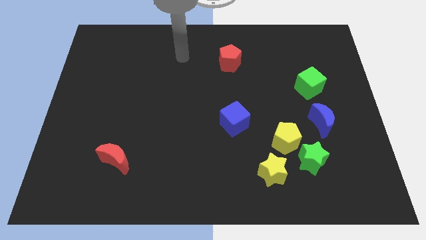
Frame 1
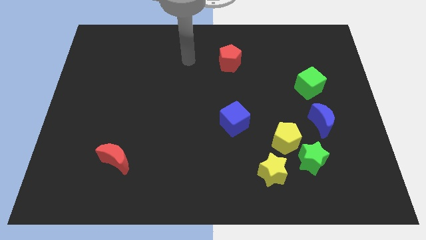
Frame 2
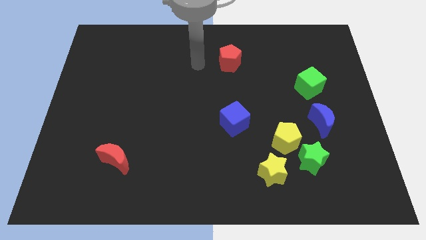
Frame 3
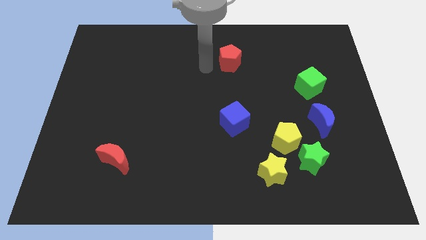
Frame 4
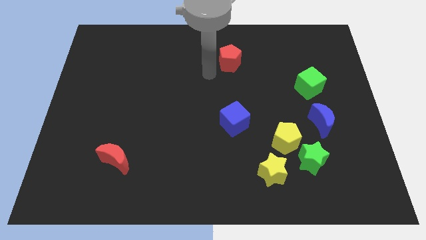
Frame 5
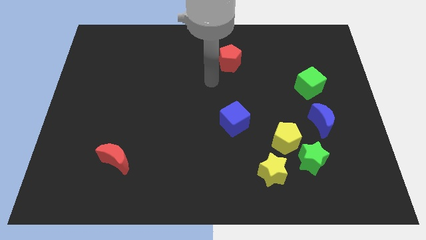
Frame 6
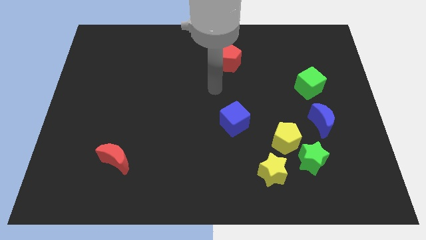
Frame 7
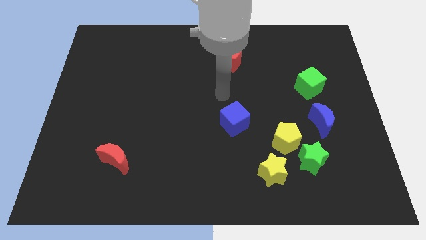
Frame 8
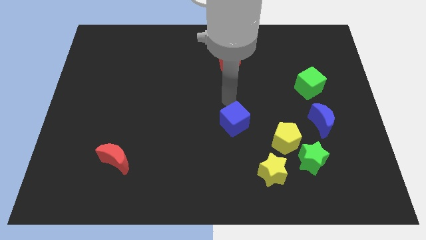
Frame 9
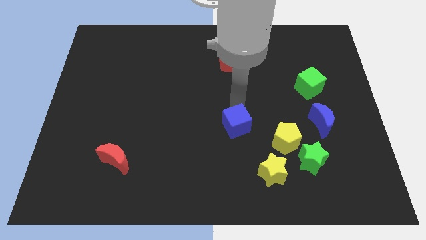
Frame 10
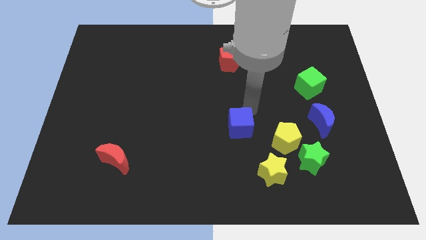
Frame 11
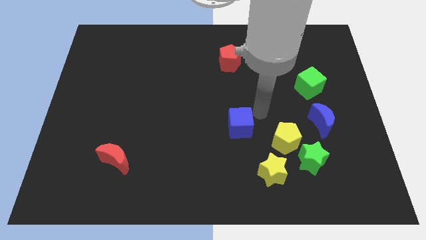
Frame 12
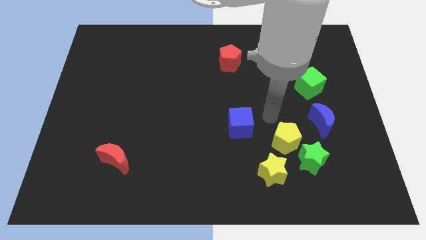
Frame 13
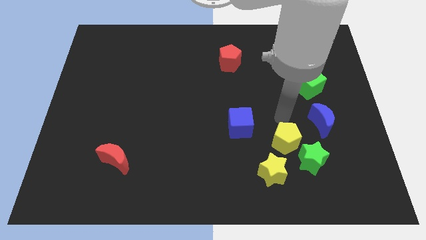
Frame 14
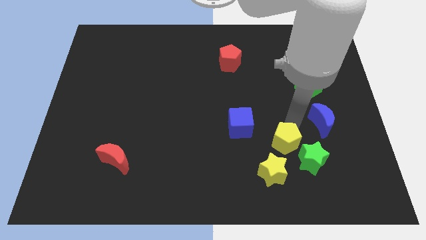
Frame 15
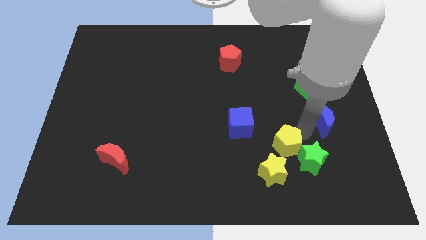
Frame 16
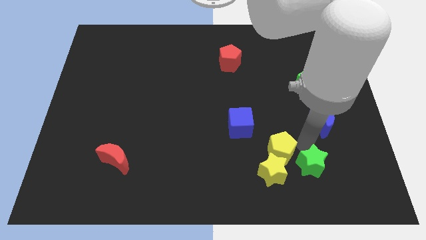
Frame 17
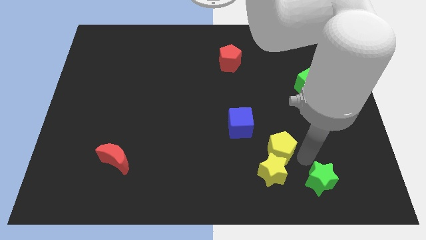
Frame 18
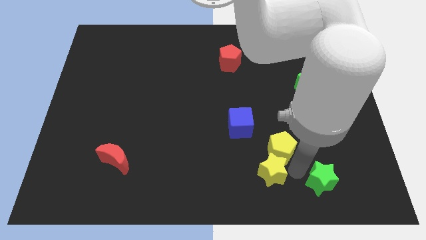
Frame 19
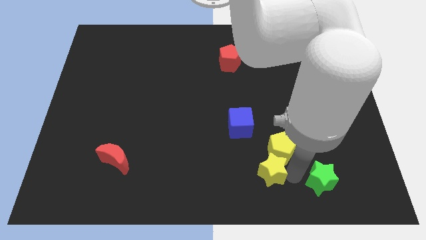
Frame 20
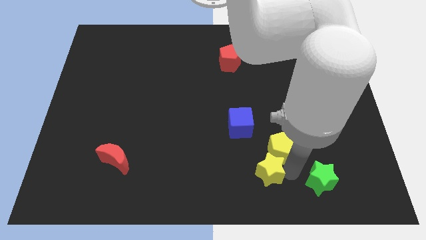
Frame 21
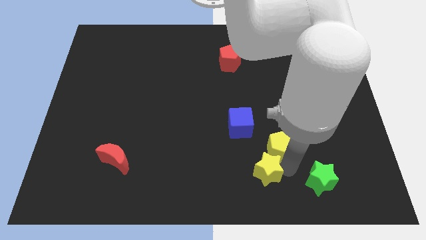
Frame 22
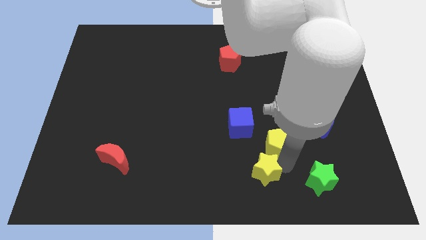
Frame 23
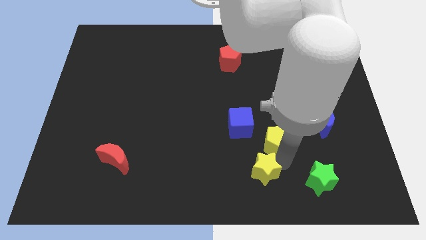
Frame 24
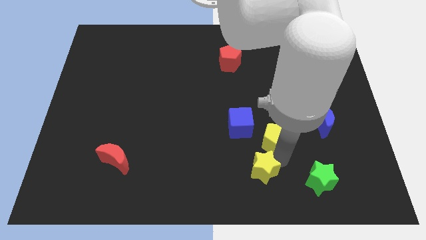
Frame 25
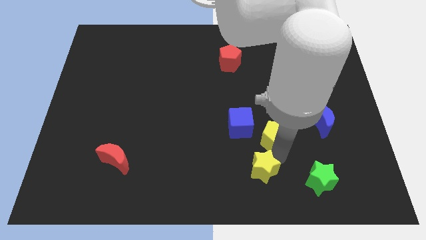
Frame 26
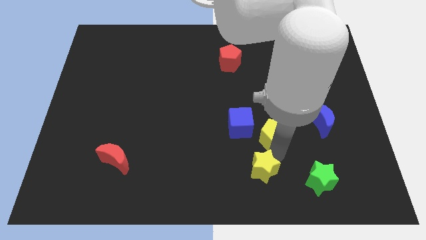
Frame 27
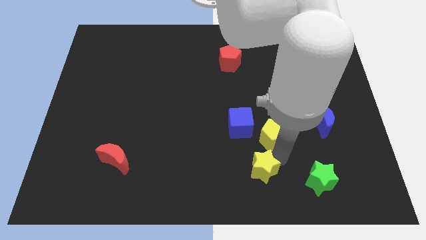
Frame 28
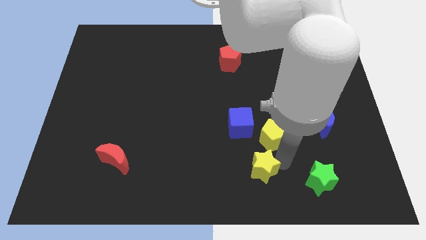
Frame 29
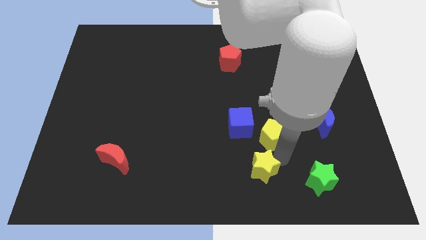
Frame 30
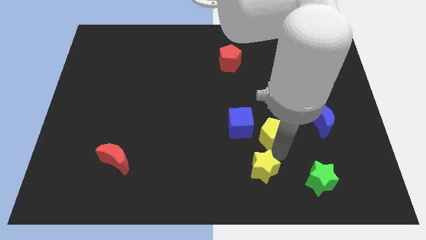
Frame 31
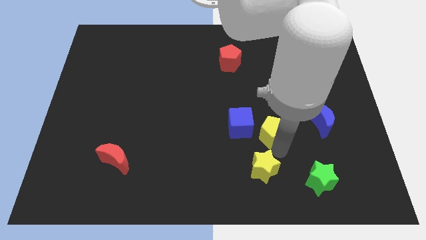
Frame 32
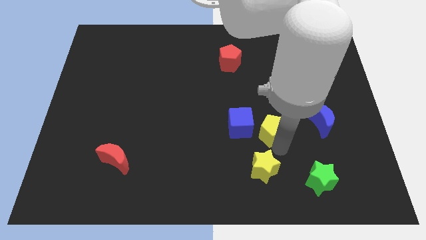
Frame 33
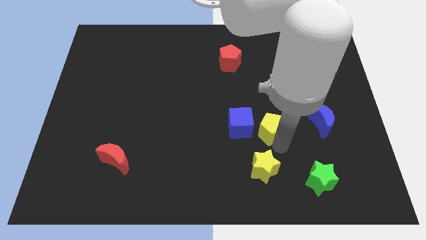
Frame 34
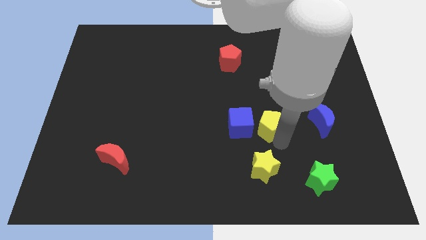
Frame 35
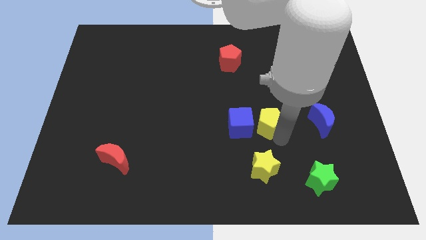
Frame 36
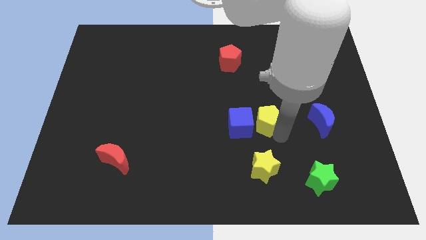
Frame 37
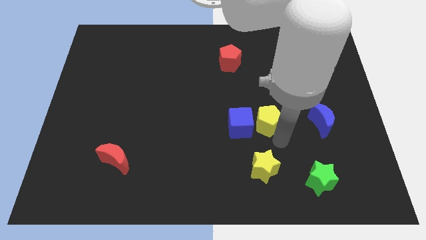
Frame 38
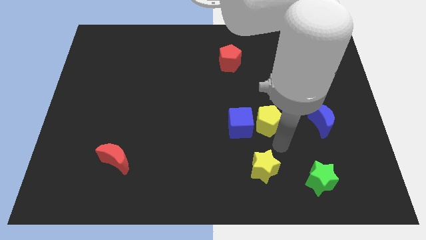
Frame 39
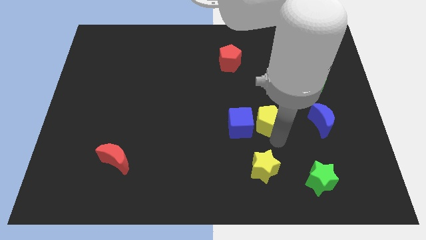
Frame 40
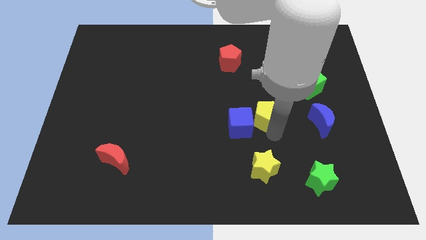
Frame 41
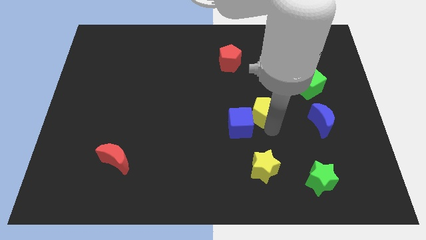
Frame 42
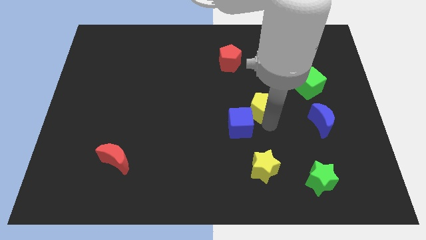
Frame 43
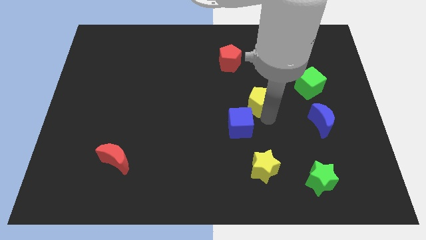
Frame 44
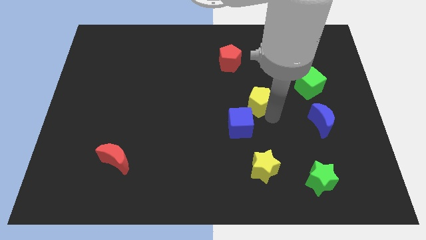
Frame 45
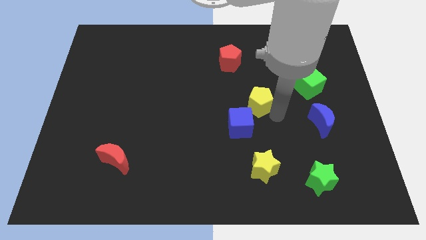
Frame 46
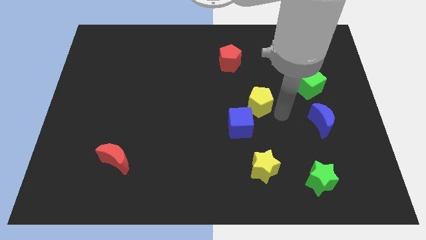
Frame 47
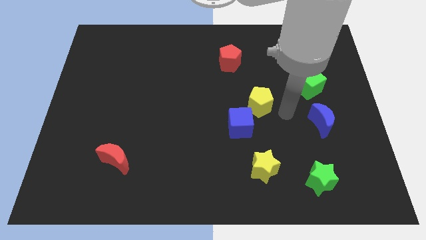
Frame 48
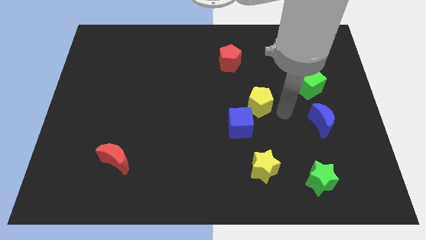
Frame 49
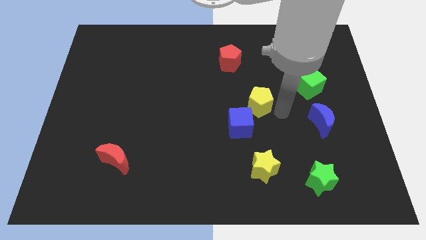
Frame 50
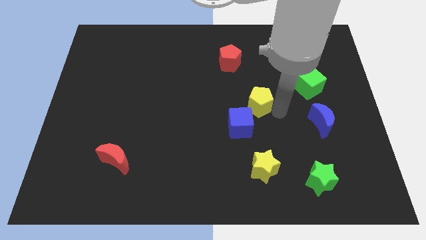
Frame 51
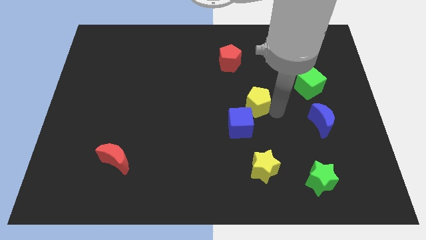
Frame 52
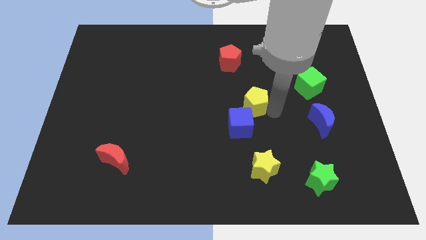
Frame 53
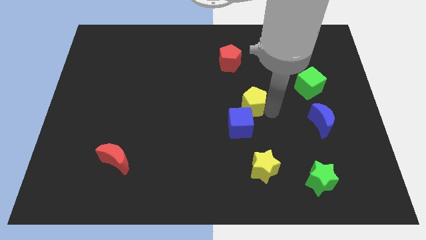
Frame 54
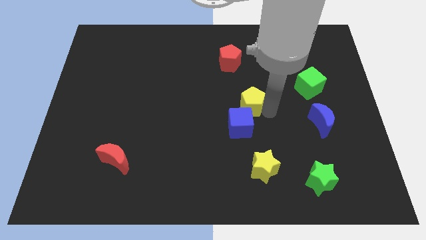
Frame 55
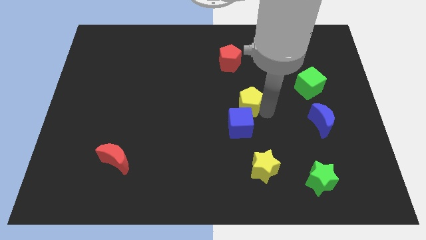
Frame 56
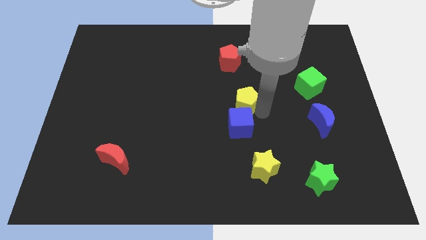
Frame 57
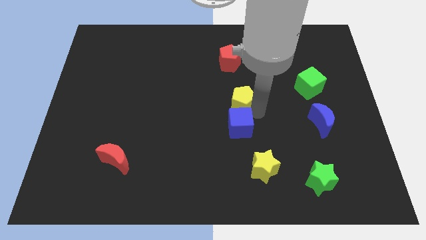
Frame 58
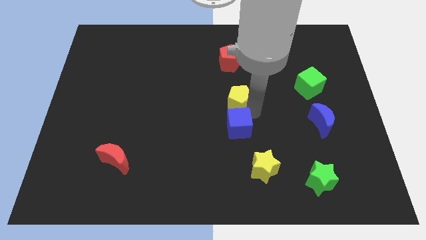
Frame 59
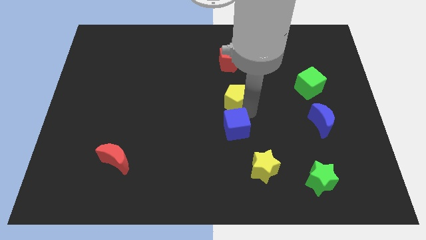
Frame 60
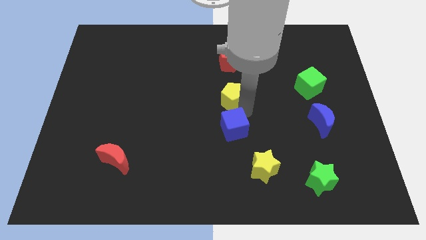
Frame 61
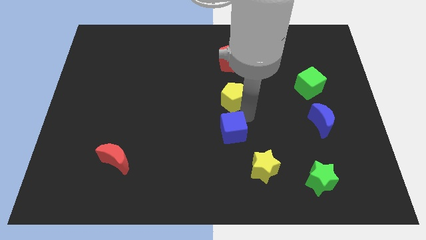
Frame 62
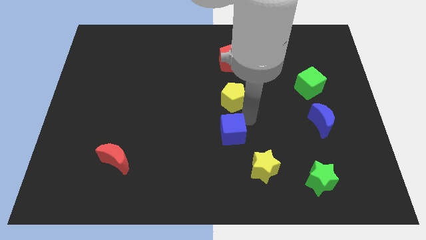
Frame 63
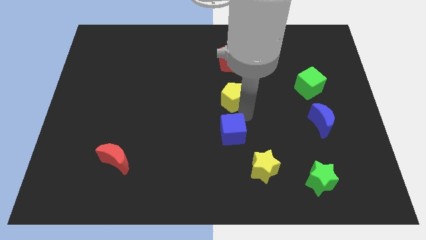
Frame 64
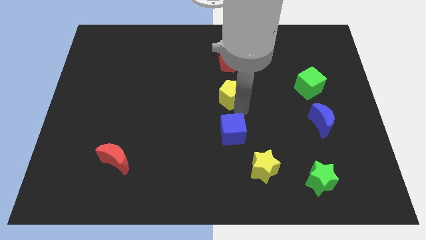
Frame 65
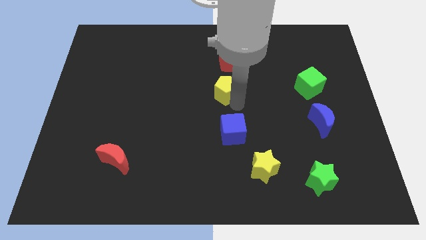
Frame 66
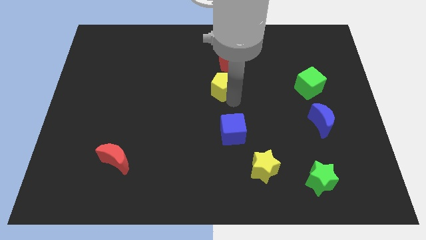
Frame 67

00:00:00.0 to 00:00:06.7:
slide the yellow pentagon up and left diagonally

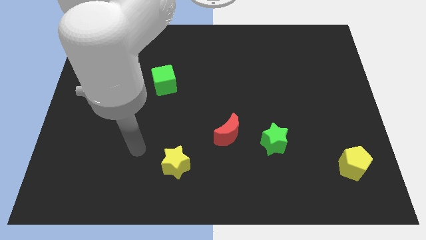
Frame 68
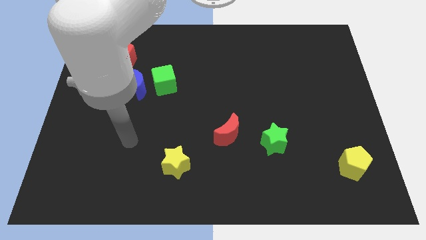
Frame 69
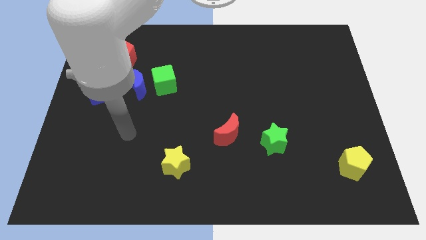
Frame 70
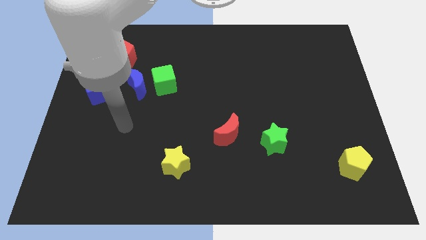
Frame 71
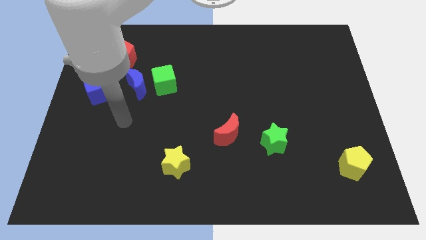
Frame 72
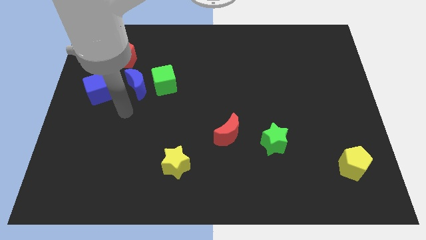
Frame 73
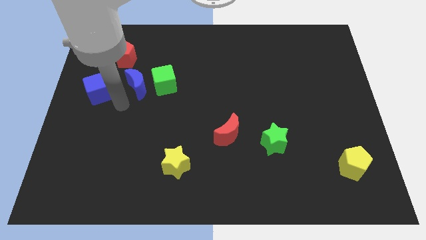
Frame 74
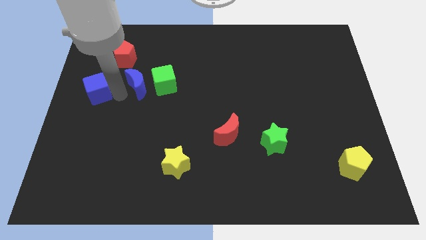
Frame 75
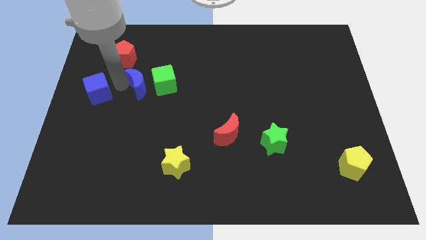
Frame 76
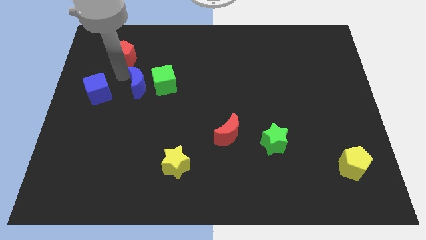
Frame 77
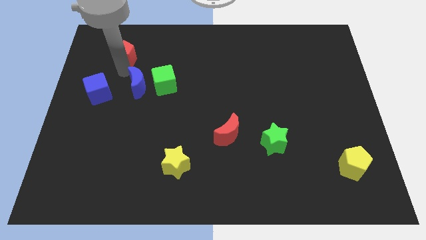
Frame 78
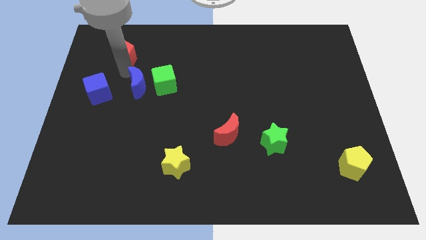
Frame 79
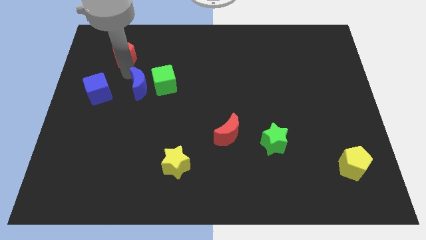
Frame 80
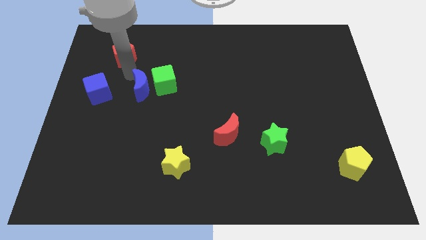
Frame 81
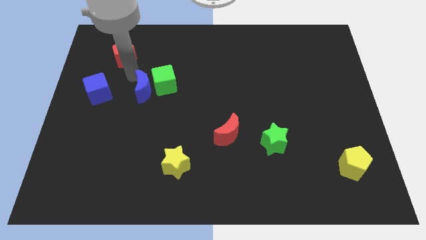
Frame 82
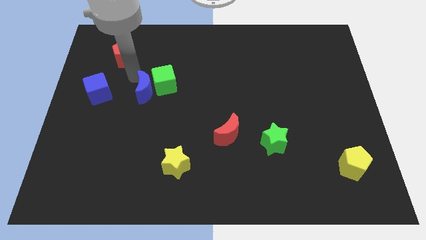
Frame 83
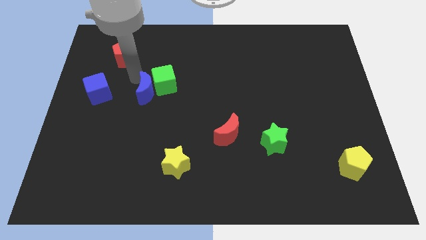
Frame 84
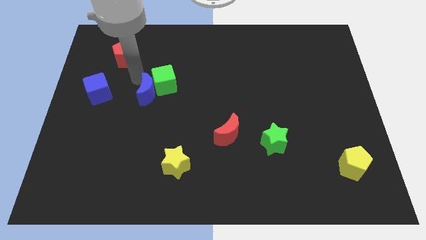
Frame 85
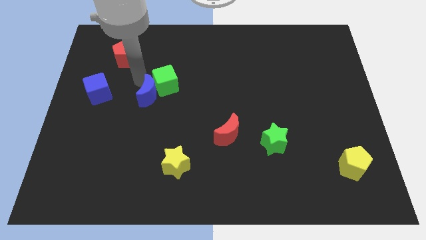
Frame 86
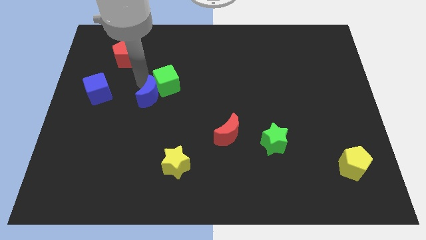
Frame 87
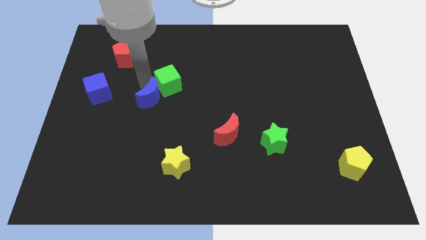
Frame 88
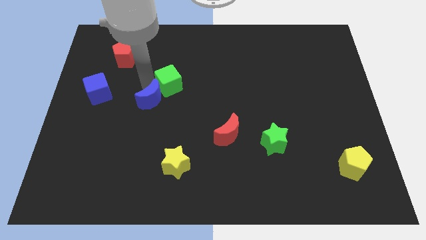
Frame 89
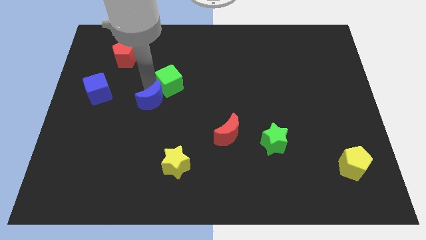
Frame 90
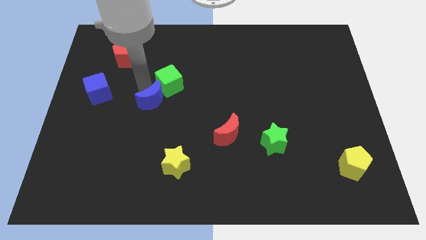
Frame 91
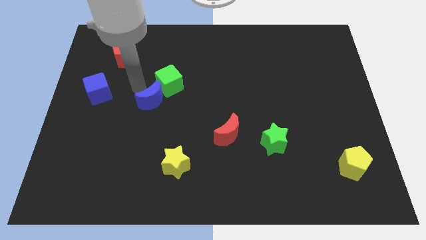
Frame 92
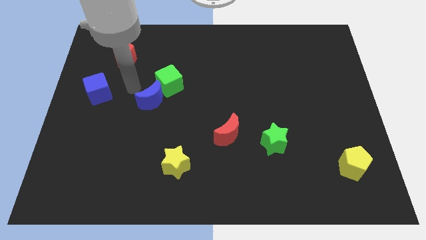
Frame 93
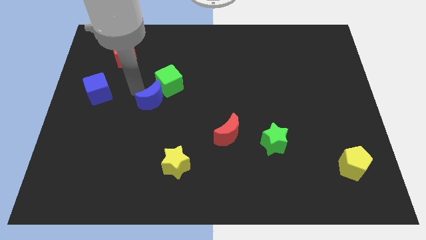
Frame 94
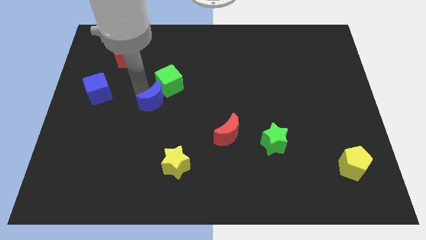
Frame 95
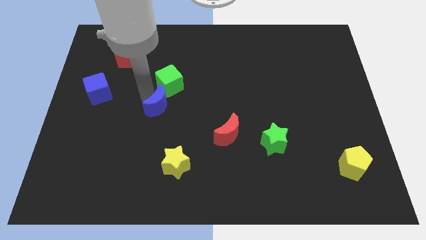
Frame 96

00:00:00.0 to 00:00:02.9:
move the blue moon a little bit down and right diagonally
